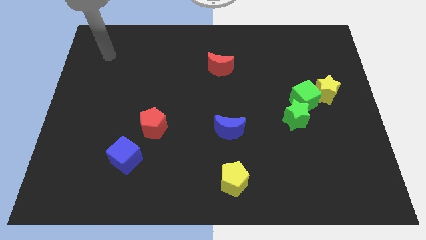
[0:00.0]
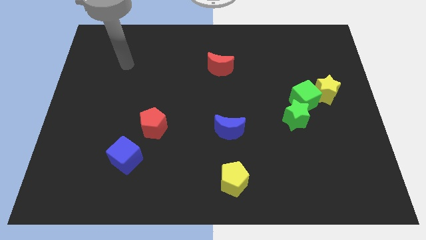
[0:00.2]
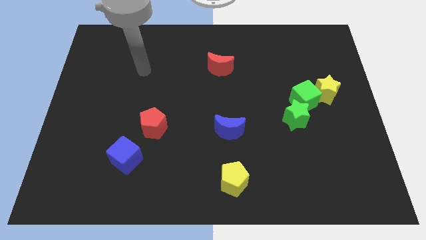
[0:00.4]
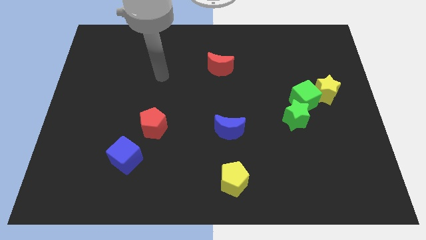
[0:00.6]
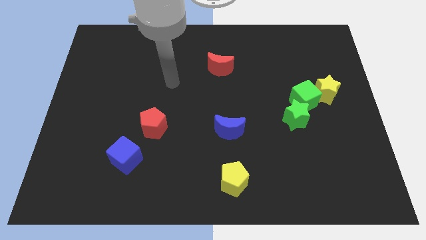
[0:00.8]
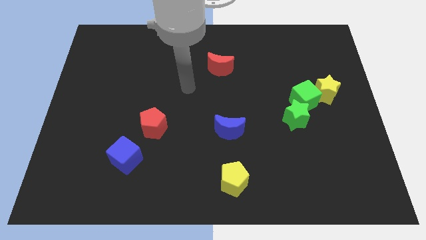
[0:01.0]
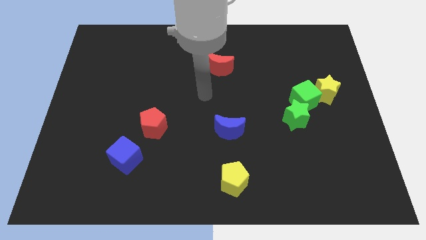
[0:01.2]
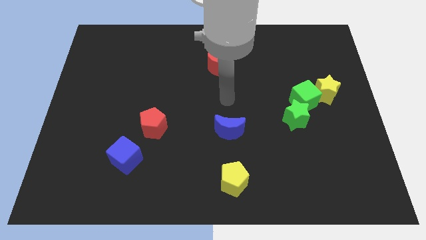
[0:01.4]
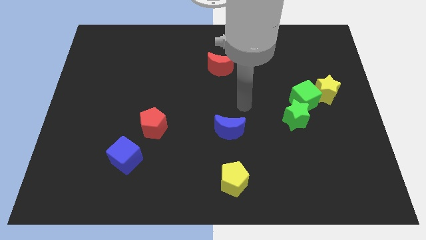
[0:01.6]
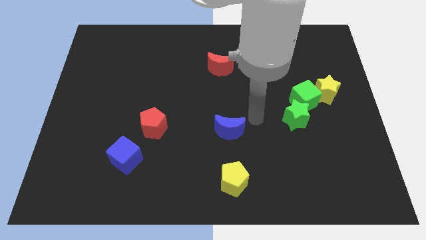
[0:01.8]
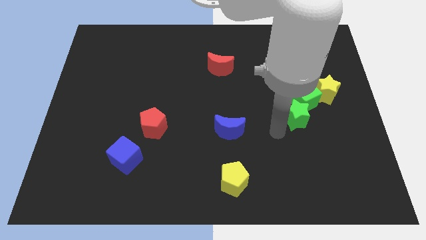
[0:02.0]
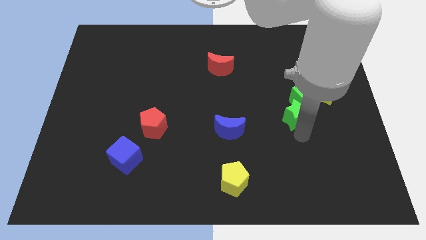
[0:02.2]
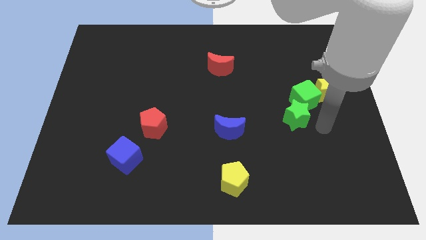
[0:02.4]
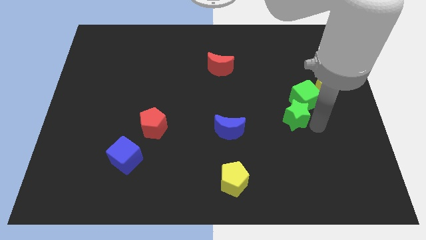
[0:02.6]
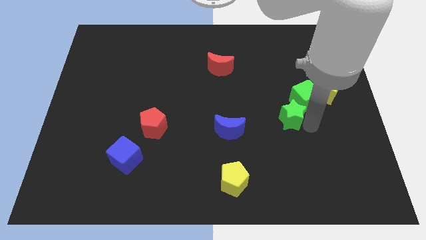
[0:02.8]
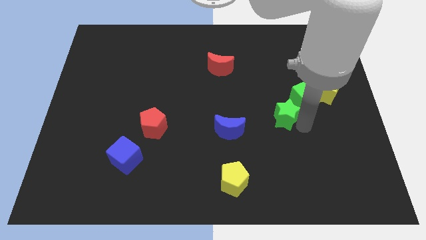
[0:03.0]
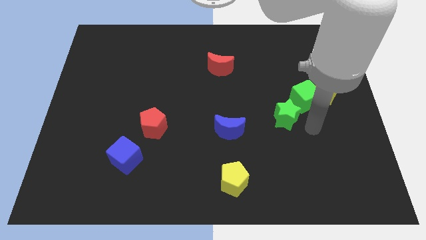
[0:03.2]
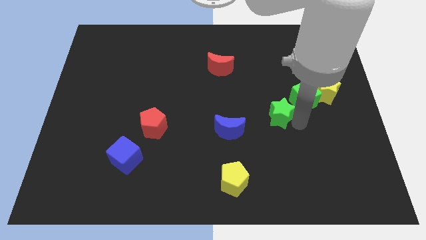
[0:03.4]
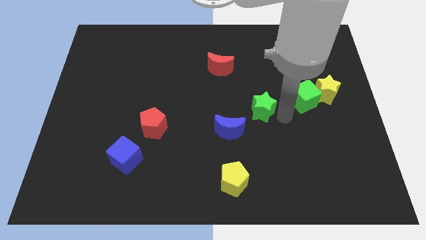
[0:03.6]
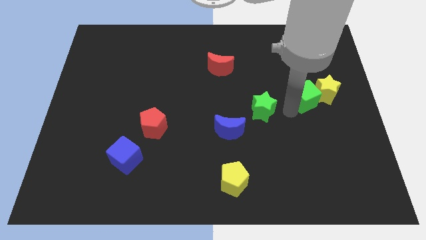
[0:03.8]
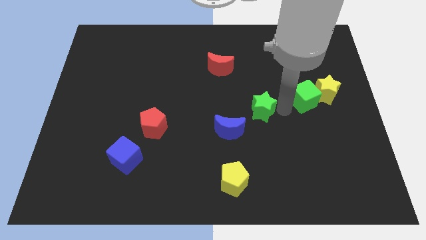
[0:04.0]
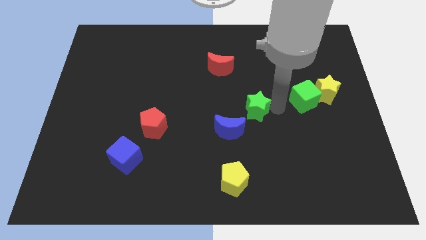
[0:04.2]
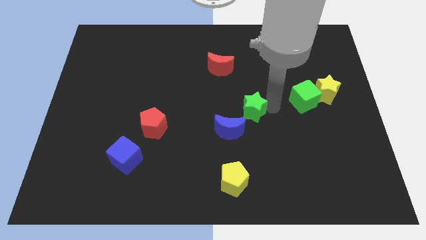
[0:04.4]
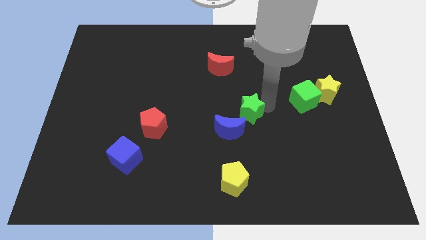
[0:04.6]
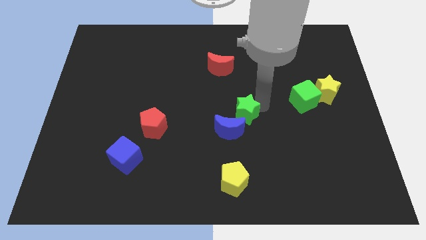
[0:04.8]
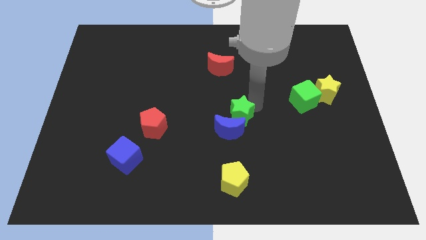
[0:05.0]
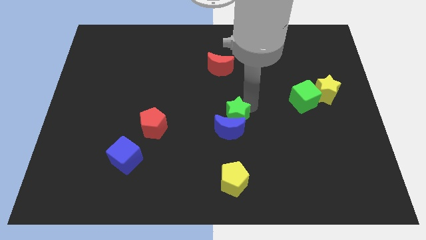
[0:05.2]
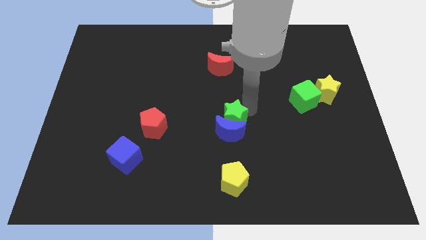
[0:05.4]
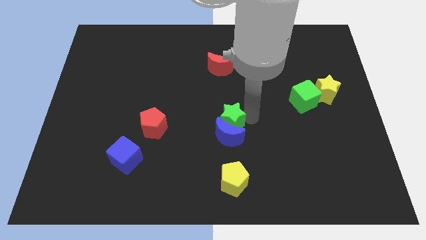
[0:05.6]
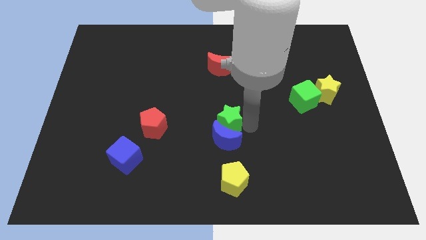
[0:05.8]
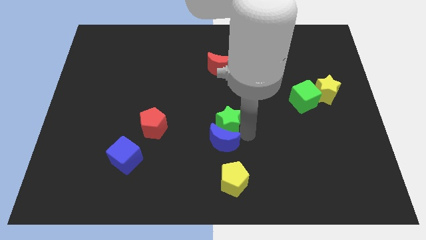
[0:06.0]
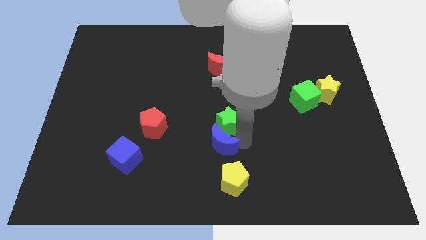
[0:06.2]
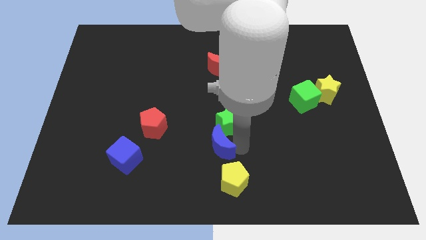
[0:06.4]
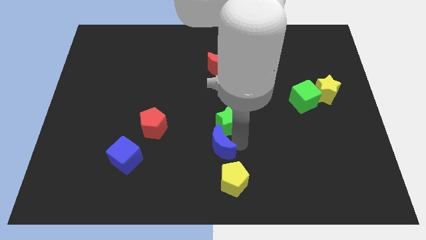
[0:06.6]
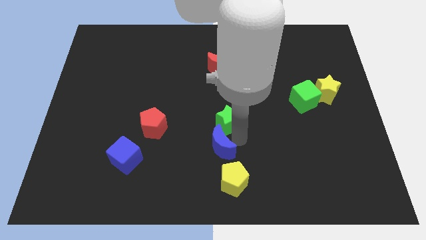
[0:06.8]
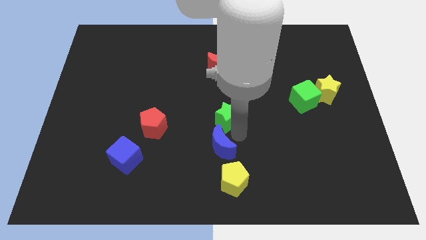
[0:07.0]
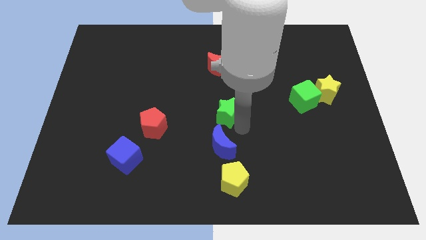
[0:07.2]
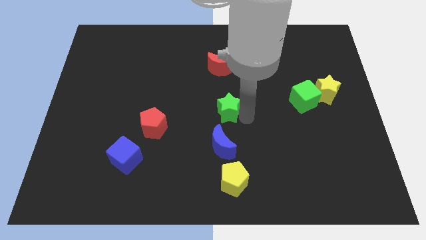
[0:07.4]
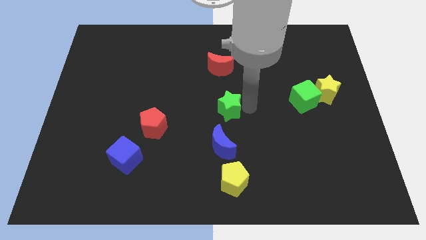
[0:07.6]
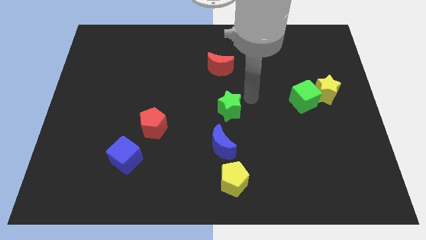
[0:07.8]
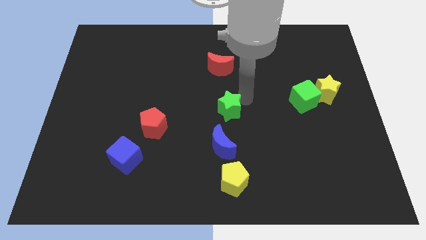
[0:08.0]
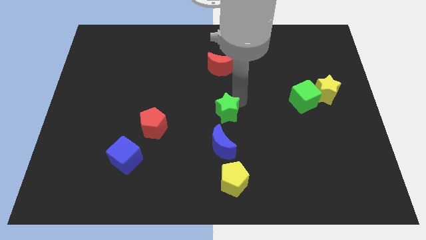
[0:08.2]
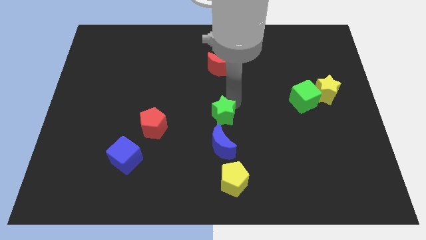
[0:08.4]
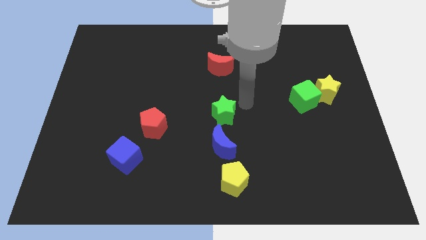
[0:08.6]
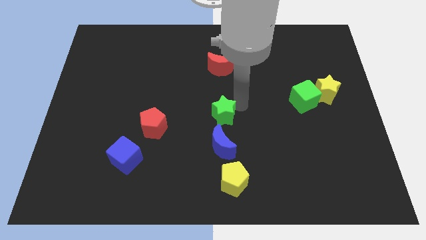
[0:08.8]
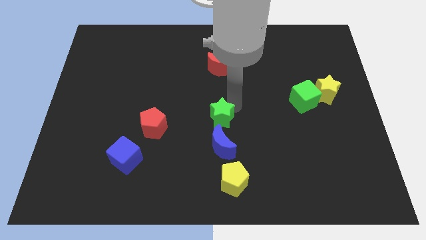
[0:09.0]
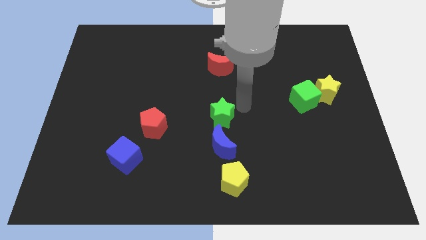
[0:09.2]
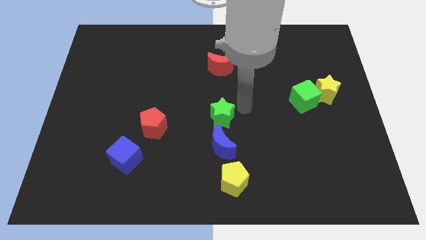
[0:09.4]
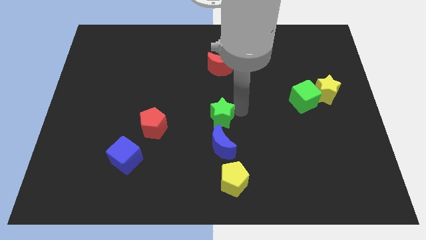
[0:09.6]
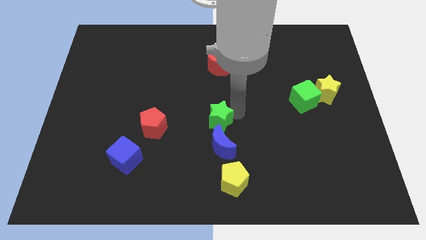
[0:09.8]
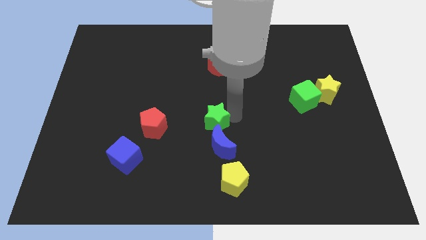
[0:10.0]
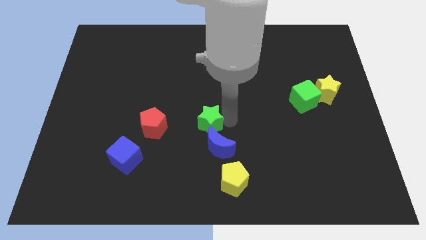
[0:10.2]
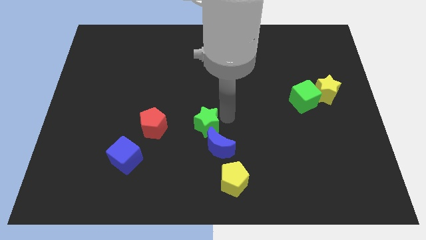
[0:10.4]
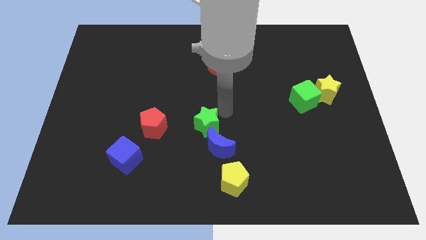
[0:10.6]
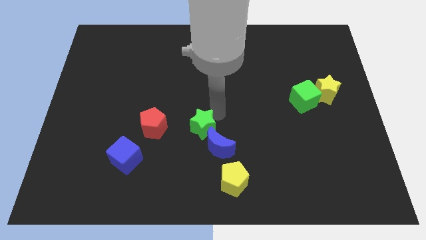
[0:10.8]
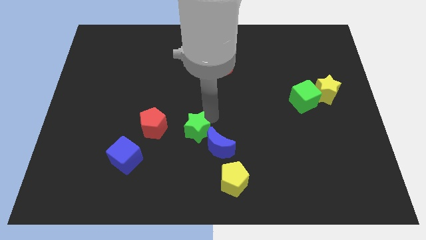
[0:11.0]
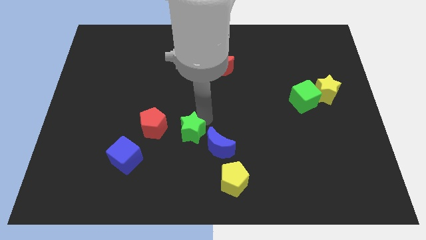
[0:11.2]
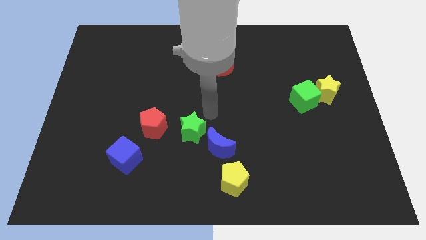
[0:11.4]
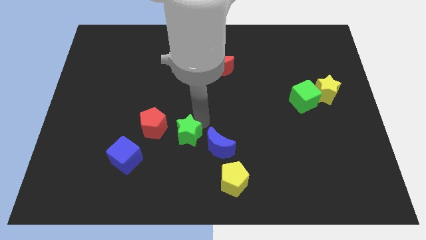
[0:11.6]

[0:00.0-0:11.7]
put the green star to the bottom right of the red pentagon

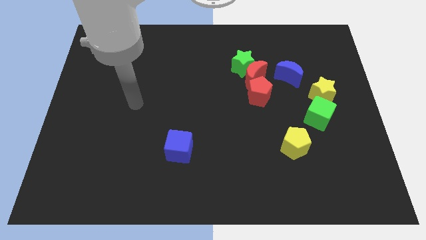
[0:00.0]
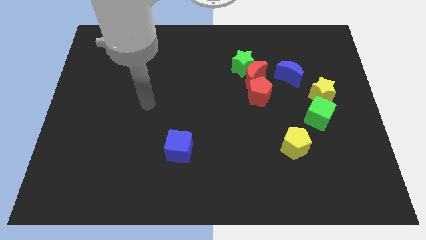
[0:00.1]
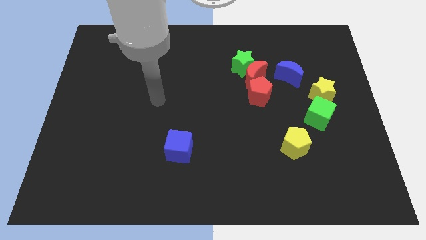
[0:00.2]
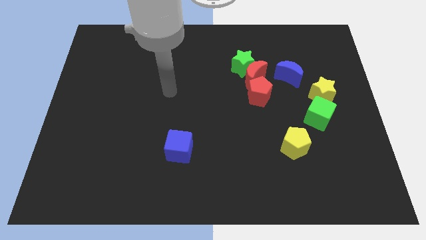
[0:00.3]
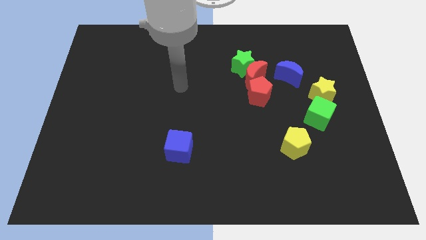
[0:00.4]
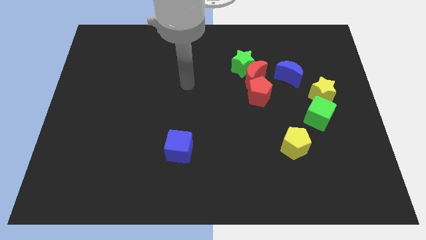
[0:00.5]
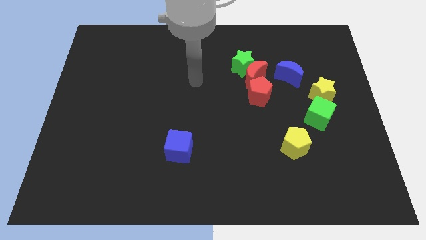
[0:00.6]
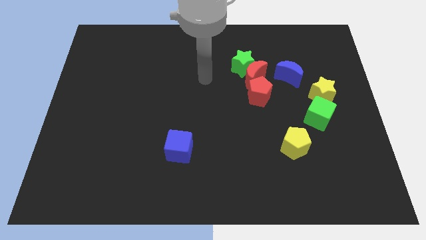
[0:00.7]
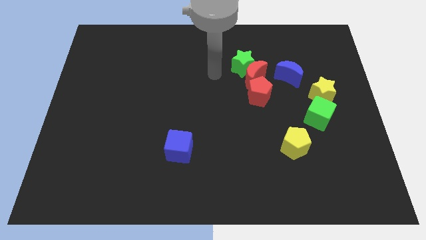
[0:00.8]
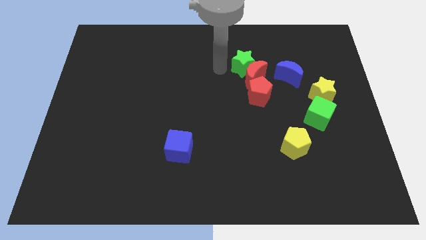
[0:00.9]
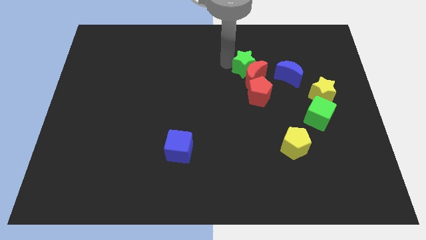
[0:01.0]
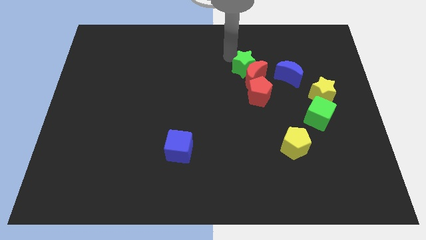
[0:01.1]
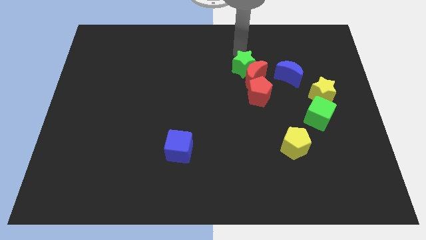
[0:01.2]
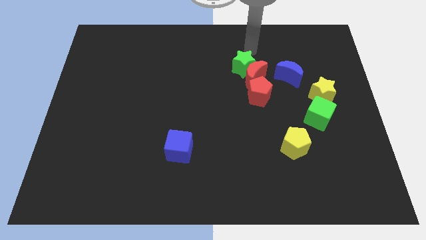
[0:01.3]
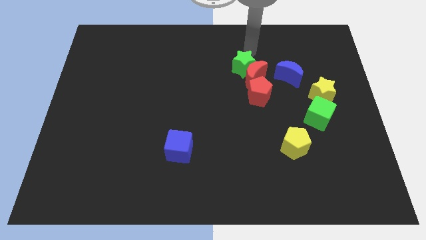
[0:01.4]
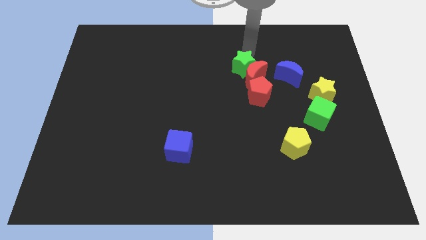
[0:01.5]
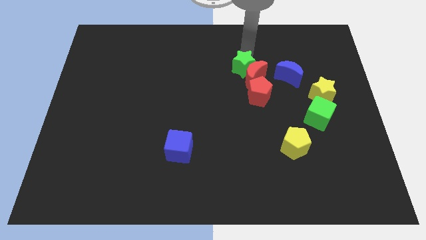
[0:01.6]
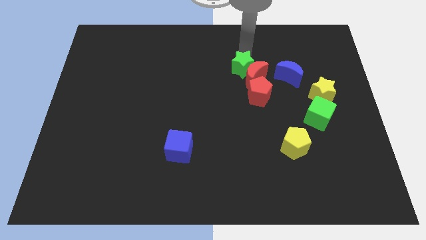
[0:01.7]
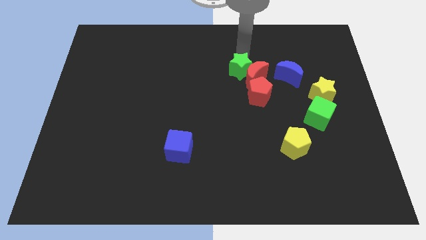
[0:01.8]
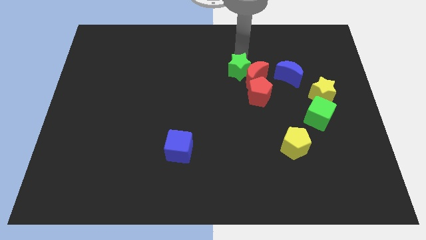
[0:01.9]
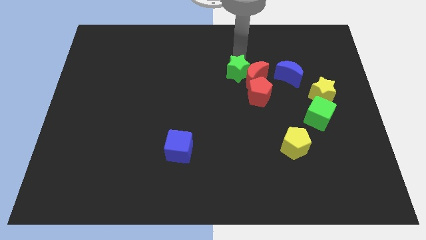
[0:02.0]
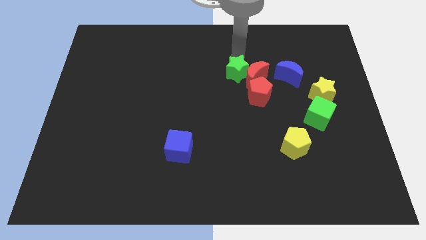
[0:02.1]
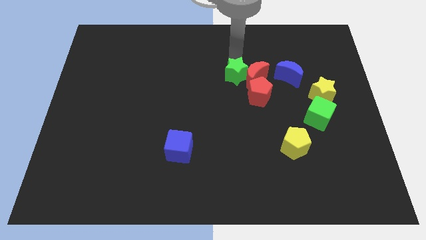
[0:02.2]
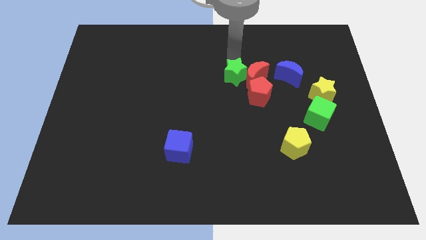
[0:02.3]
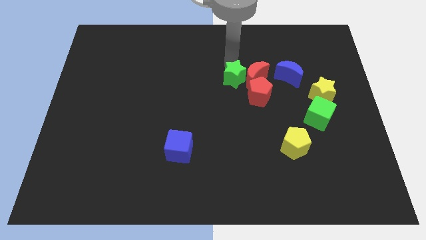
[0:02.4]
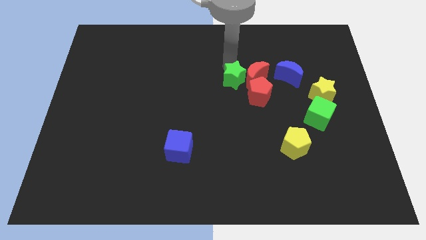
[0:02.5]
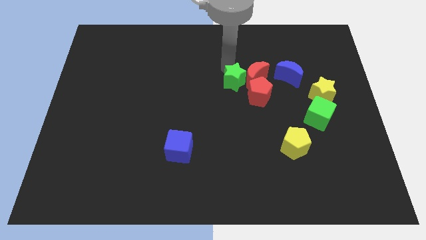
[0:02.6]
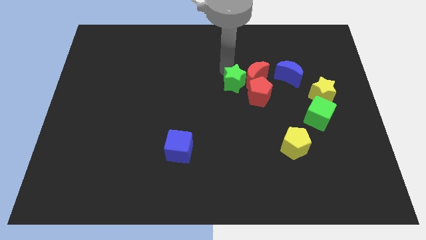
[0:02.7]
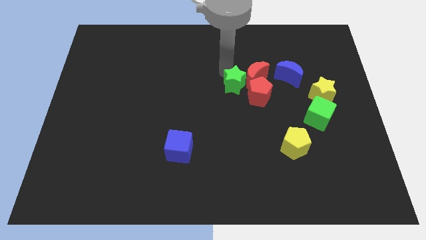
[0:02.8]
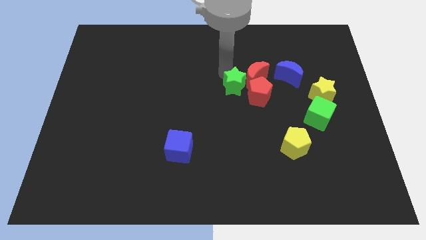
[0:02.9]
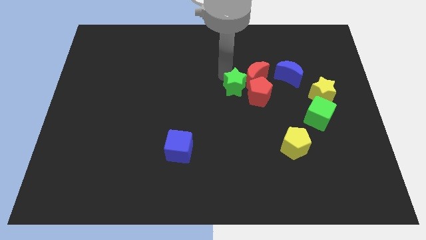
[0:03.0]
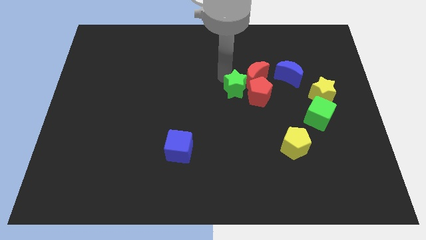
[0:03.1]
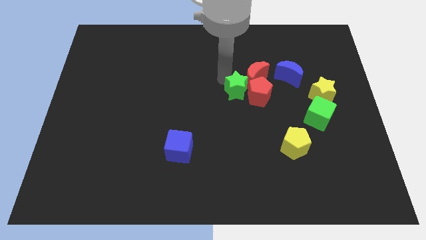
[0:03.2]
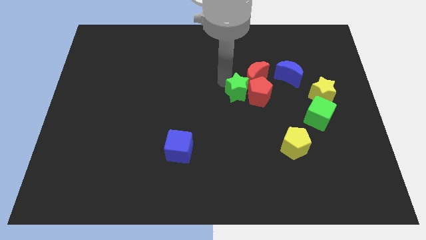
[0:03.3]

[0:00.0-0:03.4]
push the green star to the bottom side of the red moon
